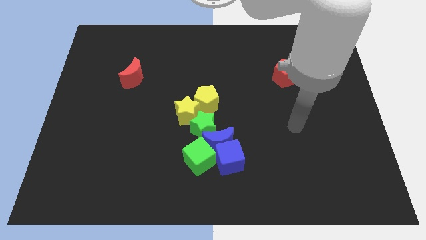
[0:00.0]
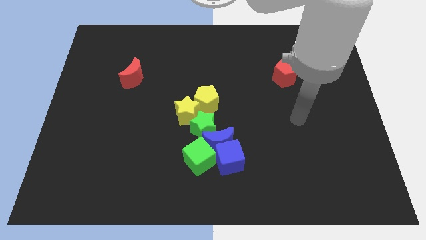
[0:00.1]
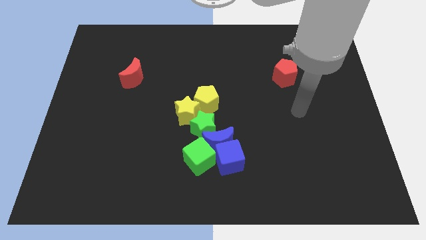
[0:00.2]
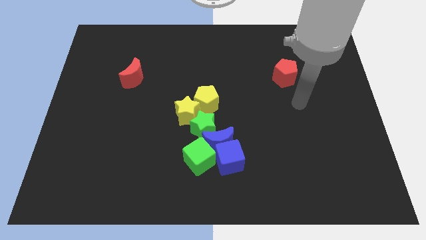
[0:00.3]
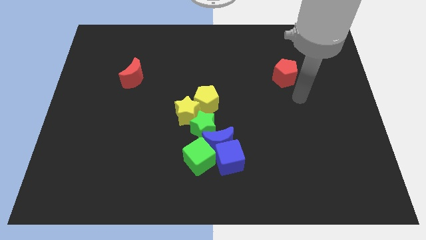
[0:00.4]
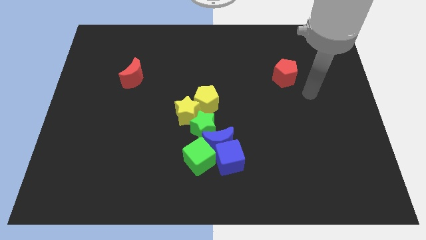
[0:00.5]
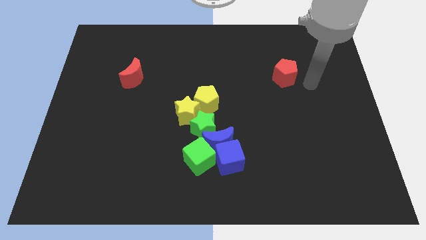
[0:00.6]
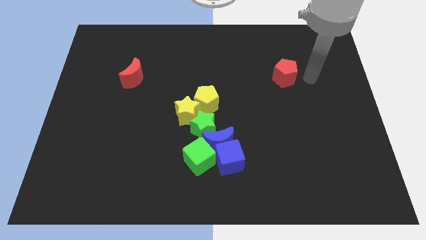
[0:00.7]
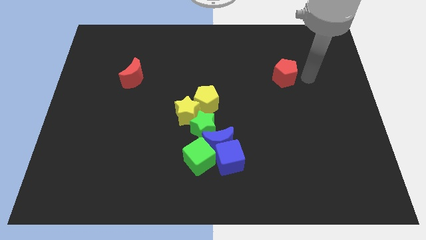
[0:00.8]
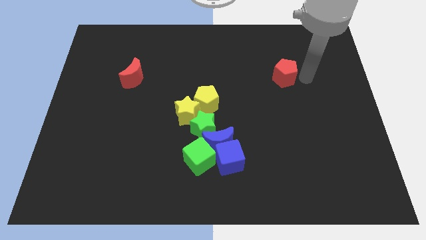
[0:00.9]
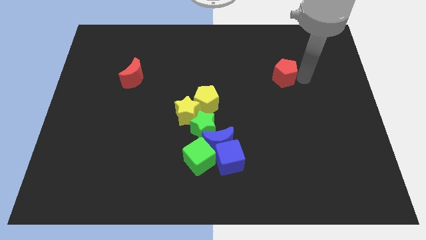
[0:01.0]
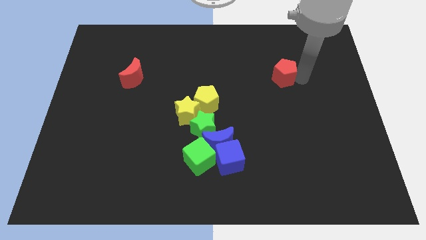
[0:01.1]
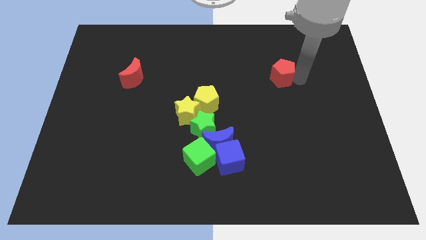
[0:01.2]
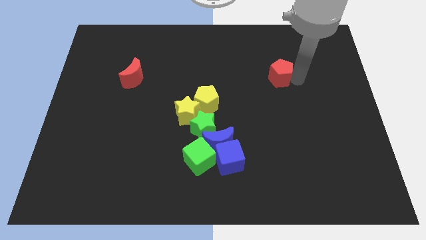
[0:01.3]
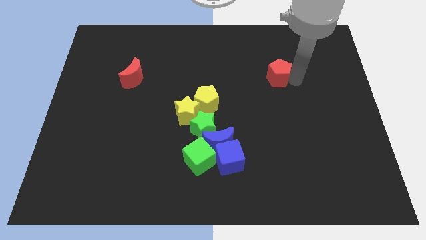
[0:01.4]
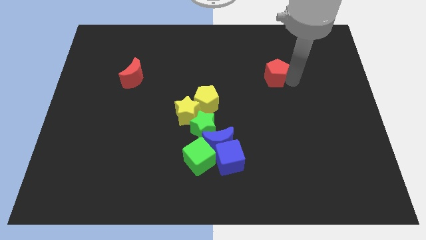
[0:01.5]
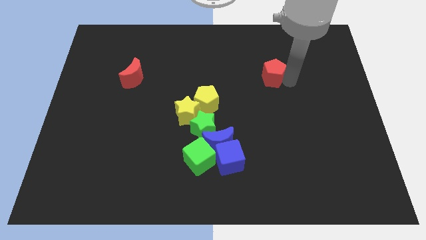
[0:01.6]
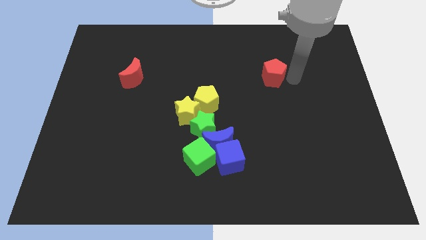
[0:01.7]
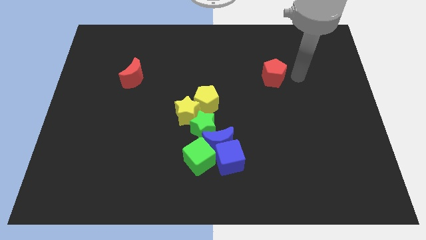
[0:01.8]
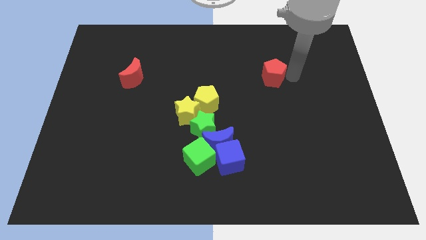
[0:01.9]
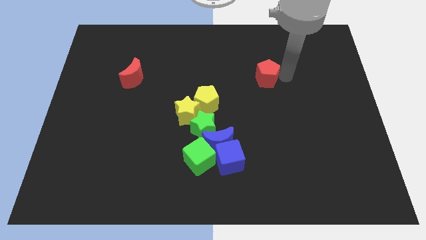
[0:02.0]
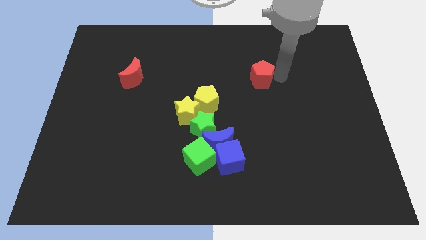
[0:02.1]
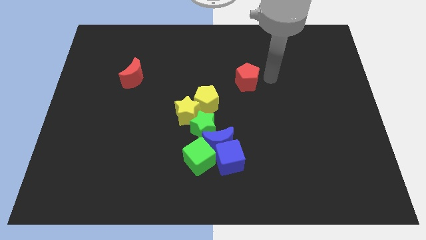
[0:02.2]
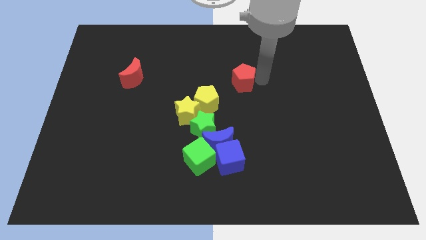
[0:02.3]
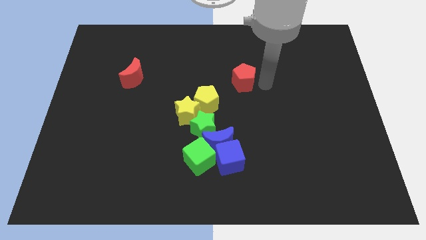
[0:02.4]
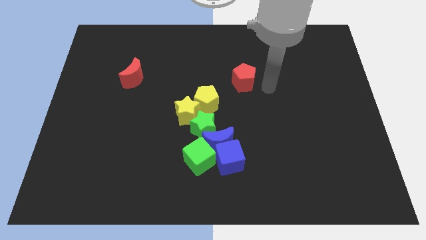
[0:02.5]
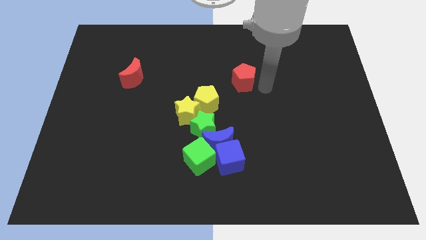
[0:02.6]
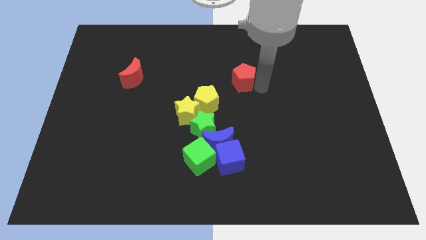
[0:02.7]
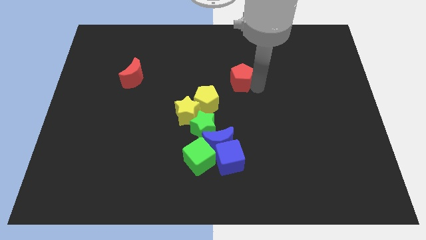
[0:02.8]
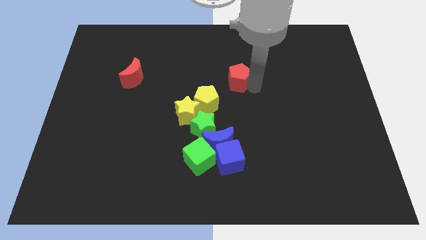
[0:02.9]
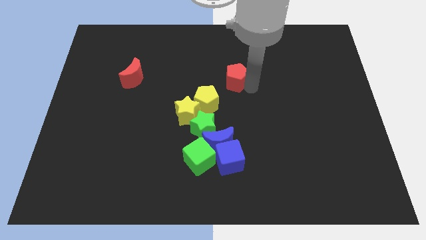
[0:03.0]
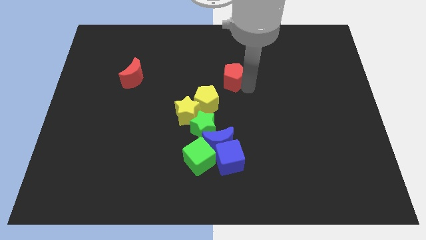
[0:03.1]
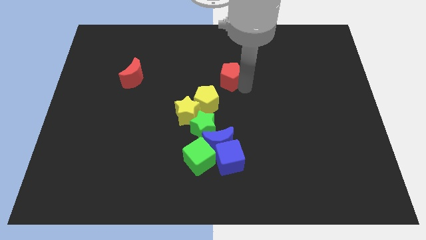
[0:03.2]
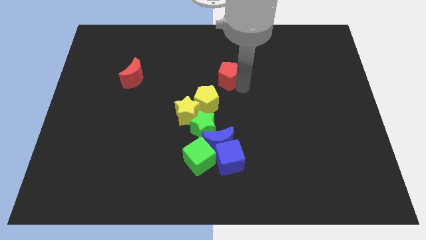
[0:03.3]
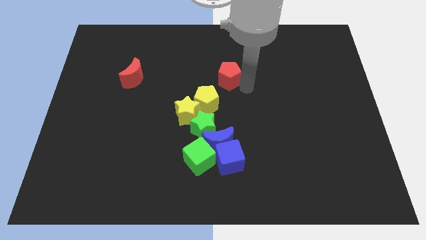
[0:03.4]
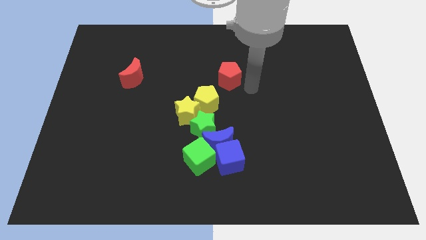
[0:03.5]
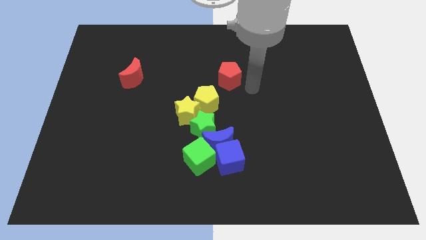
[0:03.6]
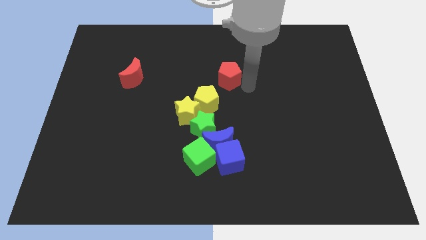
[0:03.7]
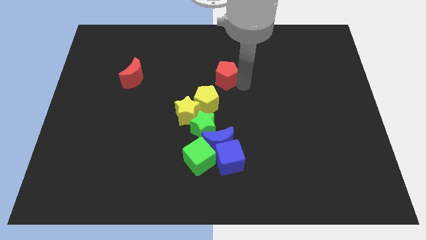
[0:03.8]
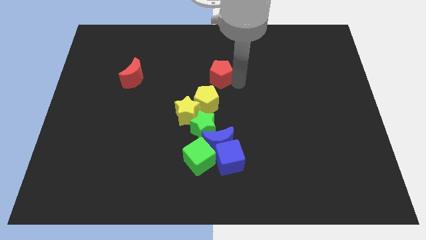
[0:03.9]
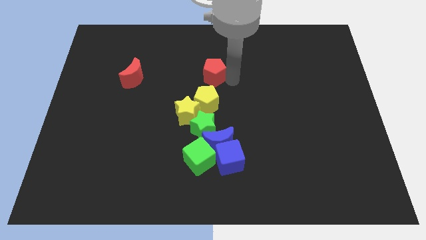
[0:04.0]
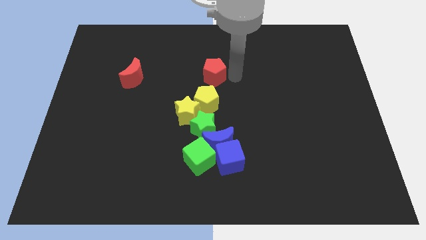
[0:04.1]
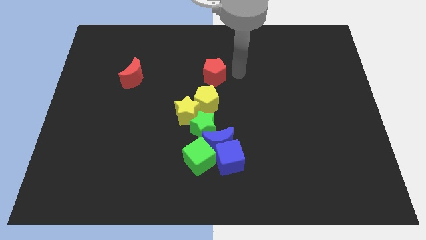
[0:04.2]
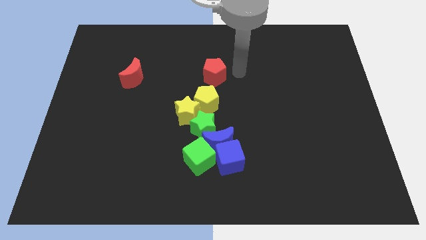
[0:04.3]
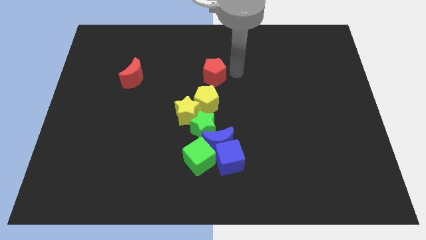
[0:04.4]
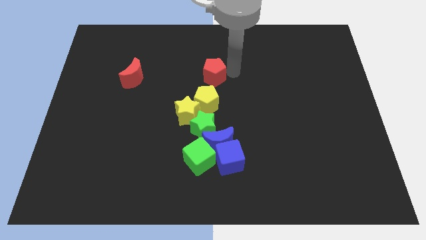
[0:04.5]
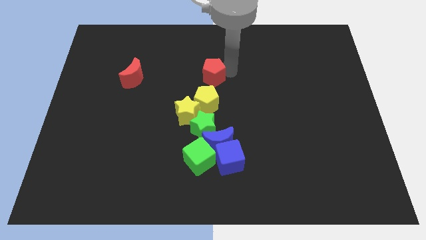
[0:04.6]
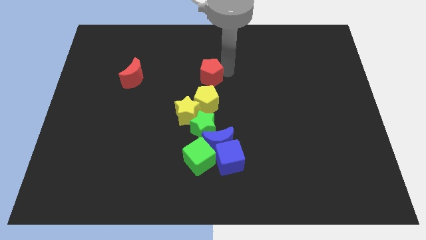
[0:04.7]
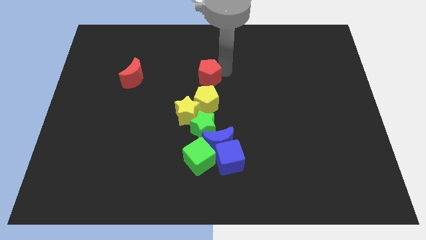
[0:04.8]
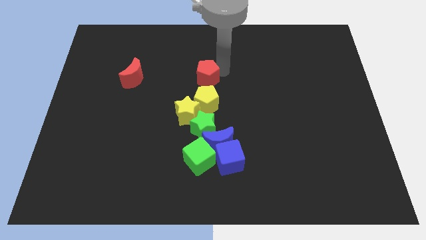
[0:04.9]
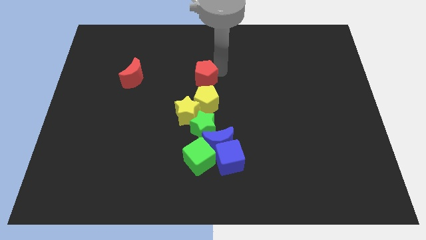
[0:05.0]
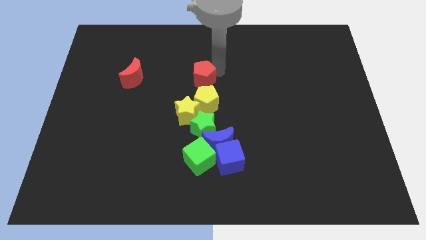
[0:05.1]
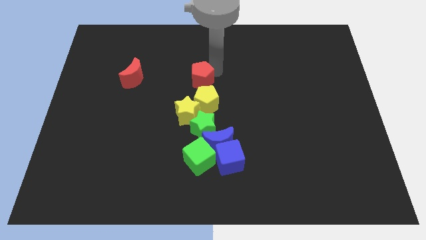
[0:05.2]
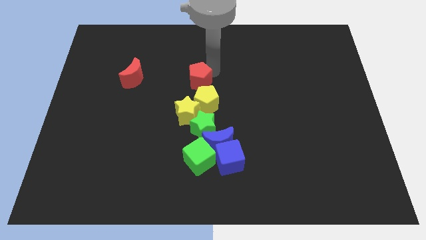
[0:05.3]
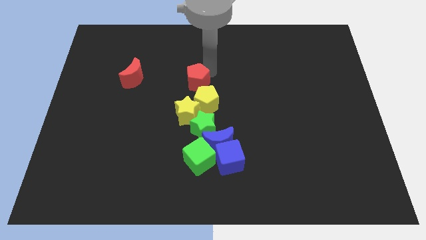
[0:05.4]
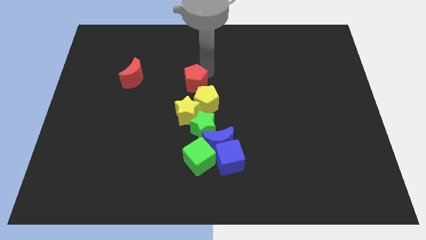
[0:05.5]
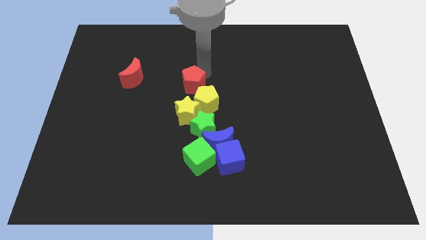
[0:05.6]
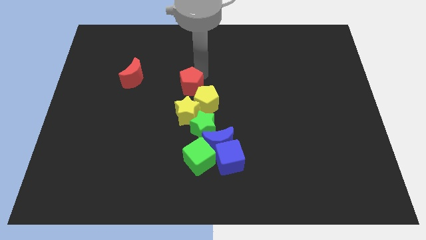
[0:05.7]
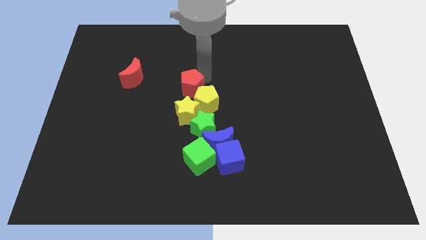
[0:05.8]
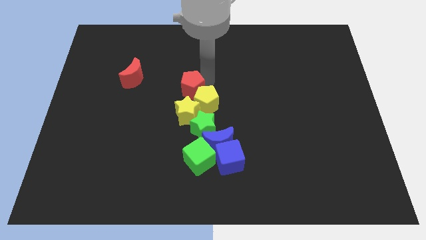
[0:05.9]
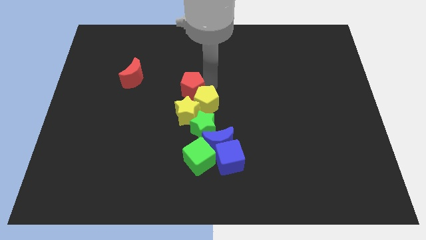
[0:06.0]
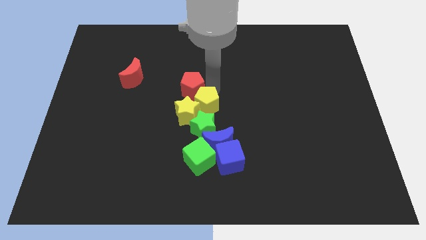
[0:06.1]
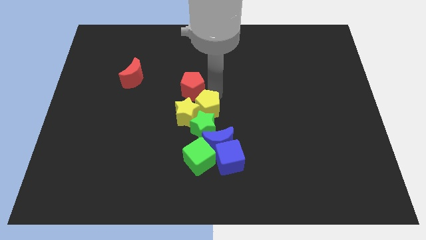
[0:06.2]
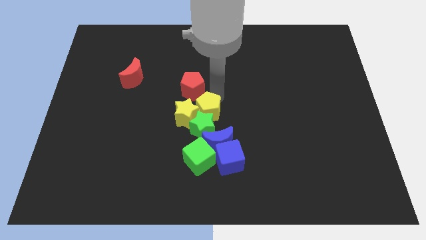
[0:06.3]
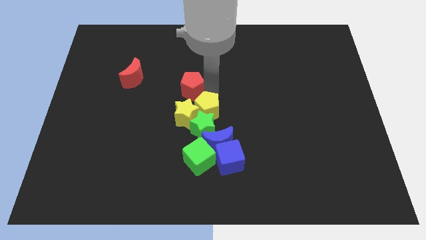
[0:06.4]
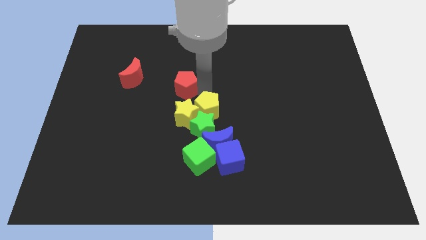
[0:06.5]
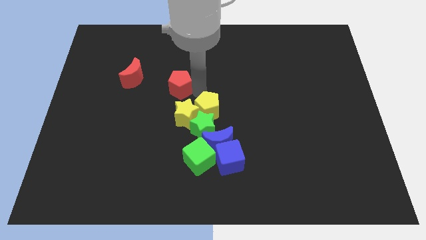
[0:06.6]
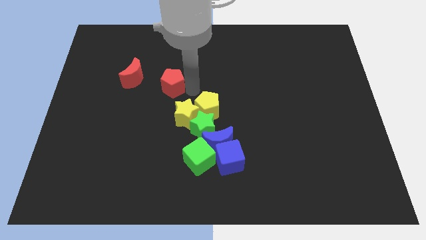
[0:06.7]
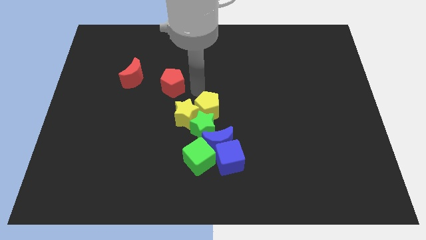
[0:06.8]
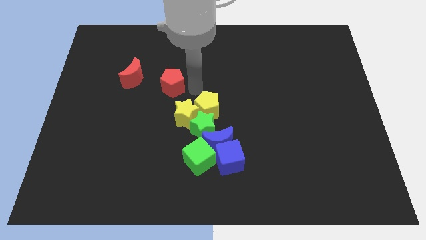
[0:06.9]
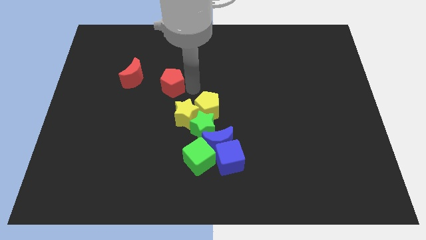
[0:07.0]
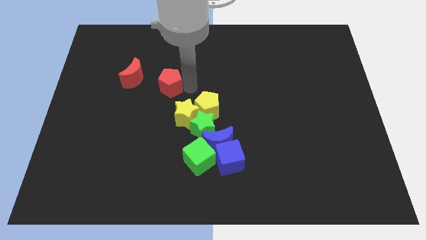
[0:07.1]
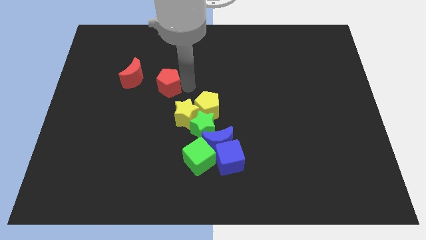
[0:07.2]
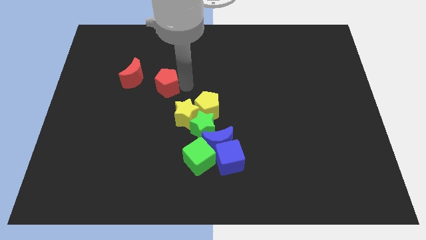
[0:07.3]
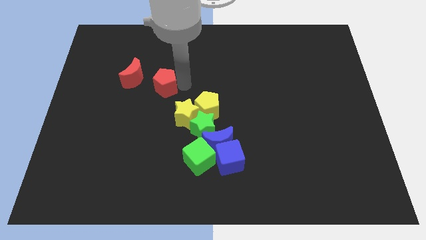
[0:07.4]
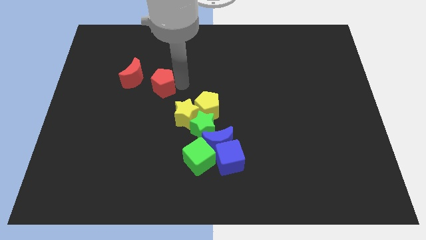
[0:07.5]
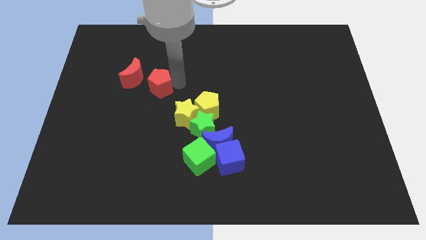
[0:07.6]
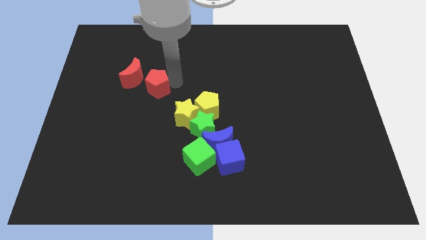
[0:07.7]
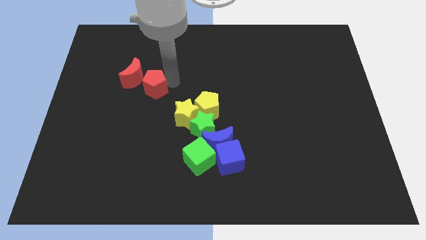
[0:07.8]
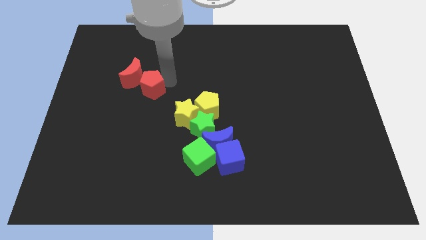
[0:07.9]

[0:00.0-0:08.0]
push the red pentagon to the red moon
